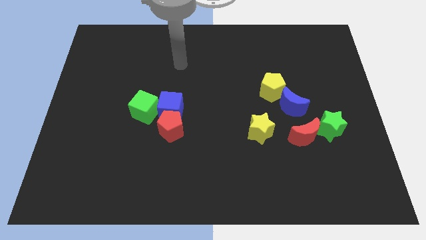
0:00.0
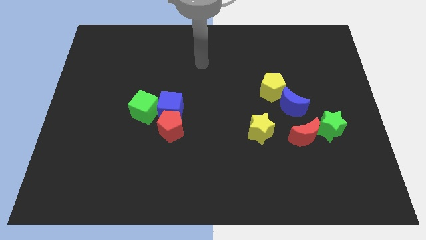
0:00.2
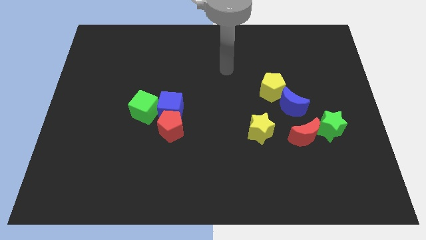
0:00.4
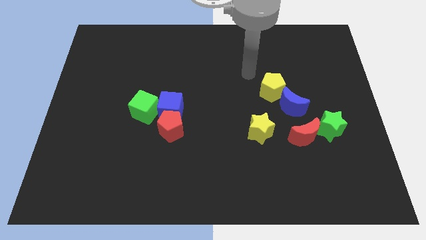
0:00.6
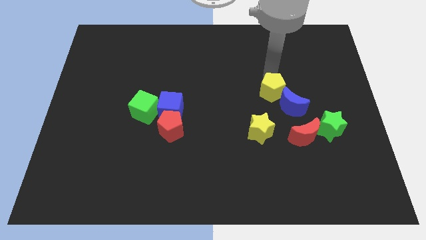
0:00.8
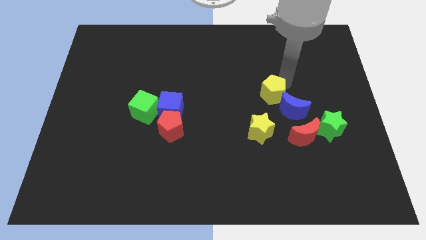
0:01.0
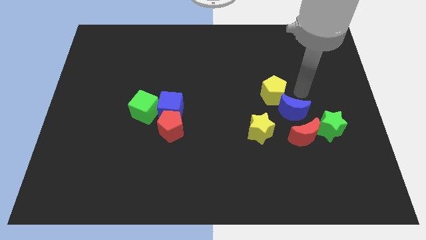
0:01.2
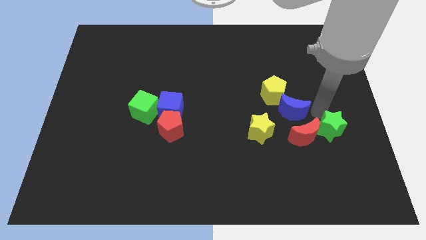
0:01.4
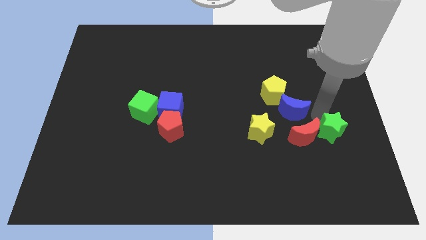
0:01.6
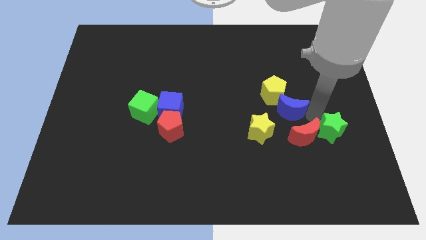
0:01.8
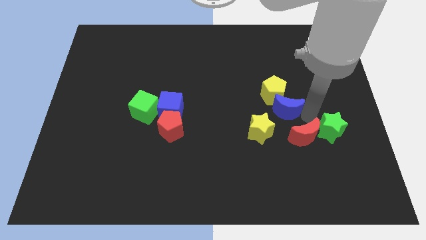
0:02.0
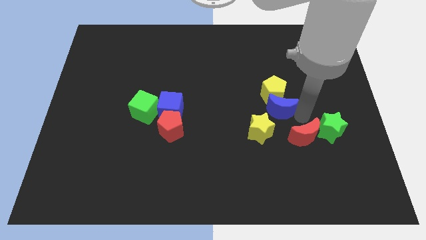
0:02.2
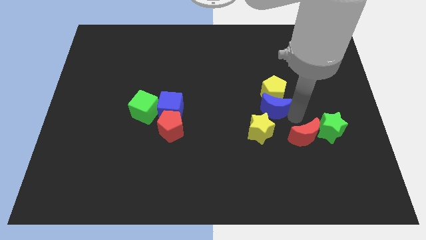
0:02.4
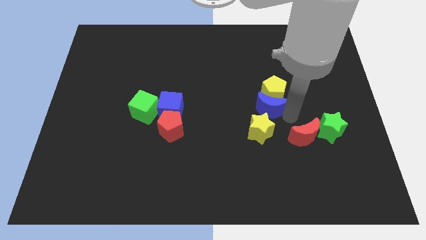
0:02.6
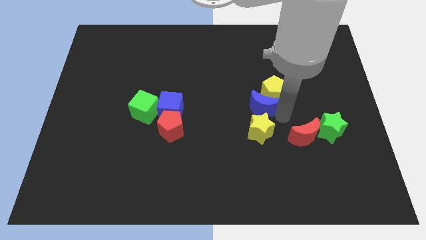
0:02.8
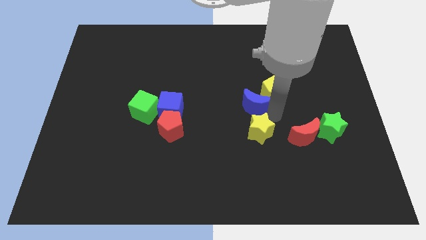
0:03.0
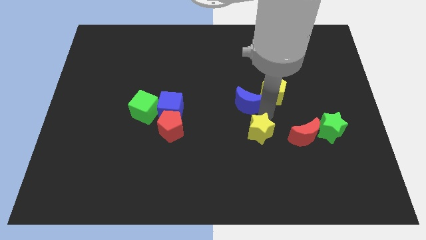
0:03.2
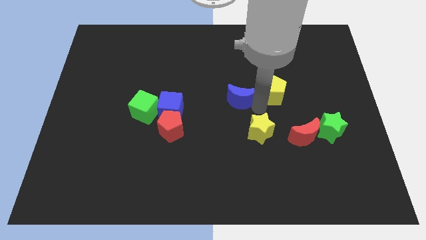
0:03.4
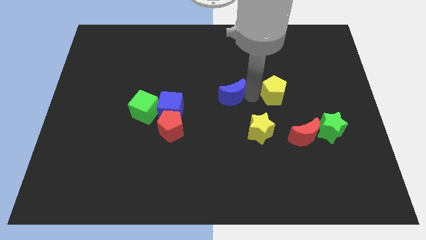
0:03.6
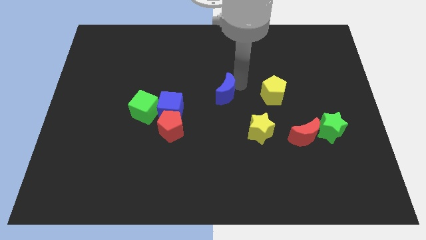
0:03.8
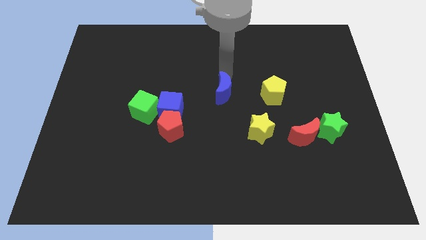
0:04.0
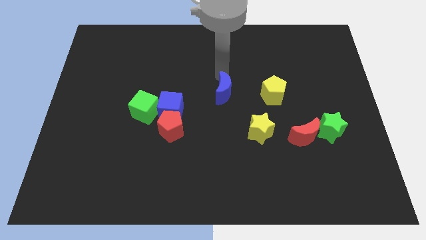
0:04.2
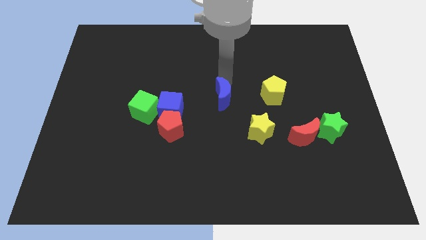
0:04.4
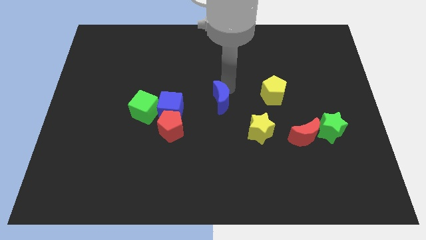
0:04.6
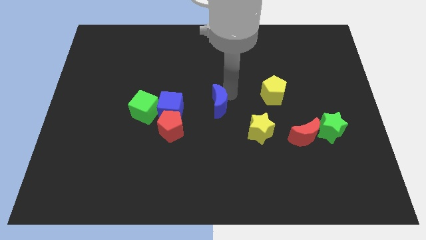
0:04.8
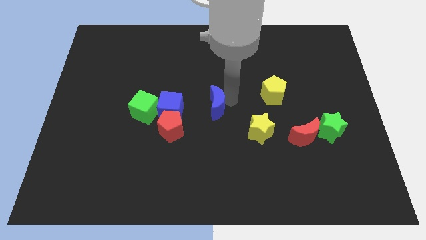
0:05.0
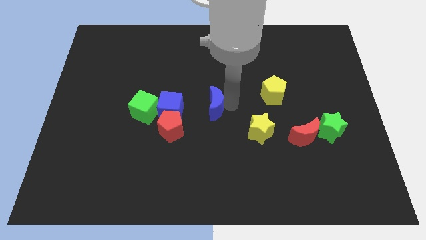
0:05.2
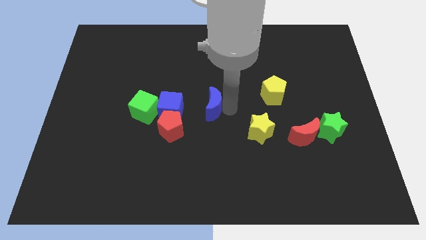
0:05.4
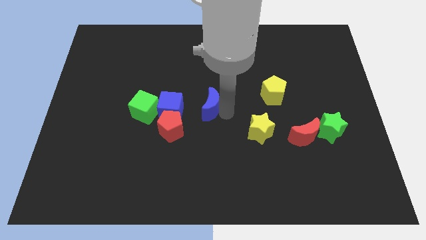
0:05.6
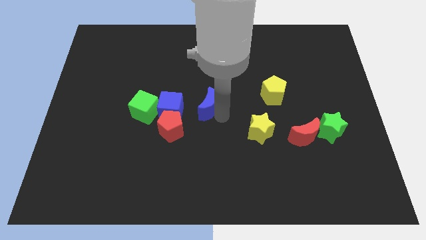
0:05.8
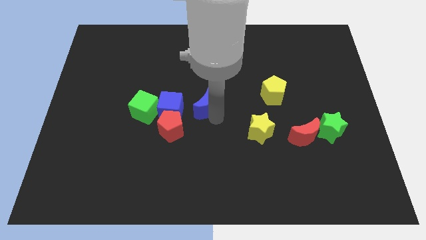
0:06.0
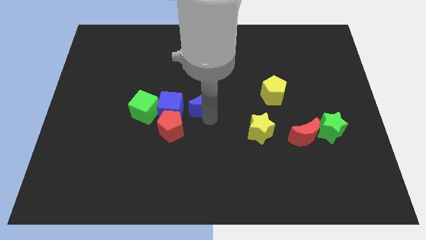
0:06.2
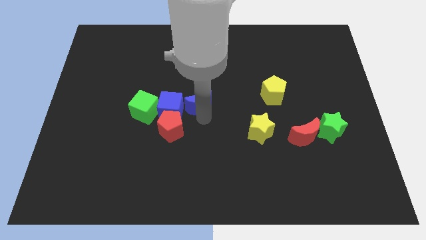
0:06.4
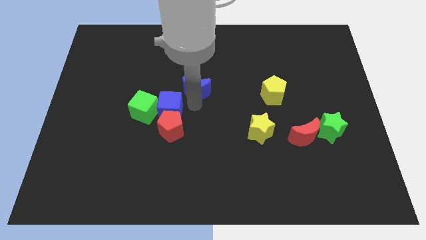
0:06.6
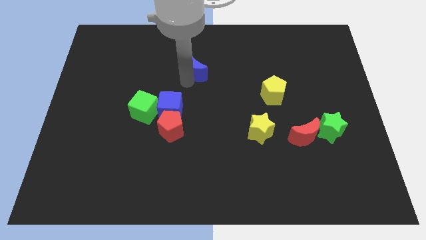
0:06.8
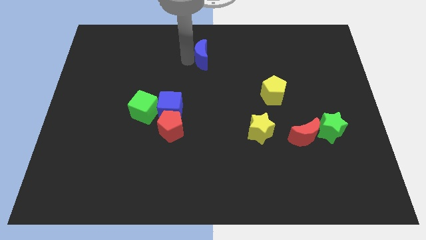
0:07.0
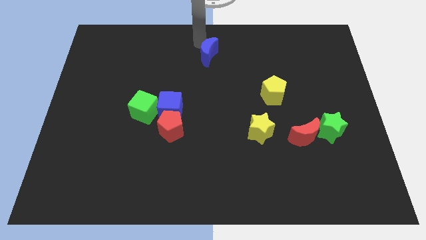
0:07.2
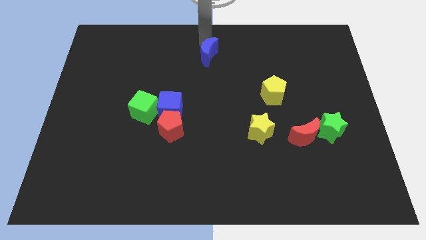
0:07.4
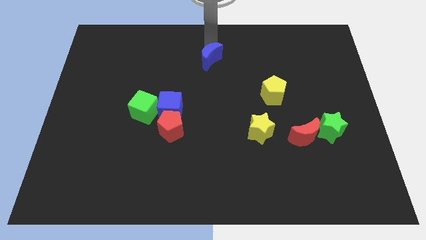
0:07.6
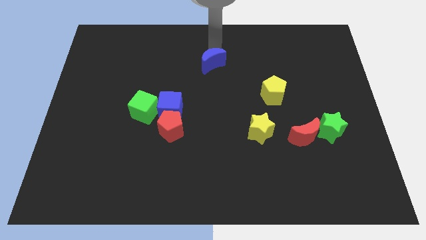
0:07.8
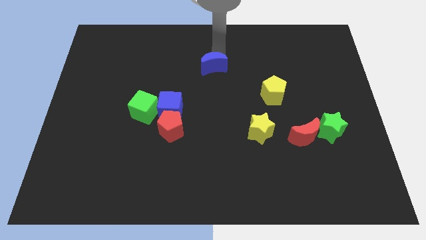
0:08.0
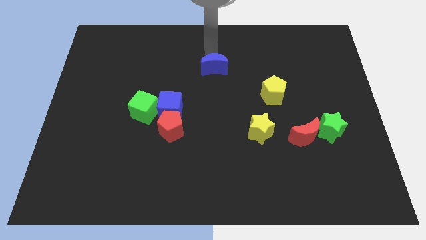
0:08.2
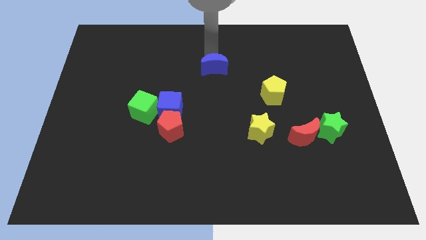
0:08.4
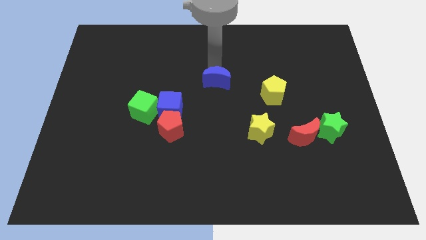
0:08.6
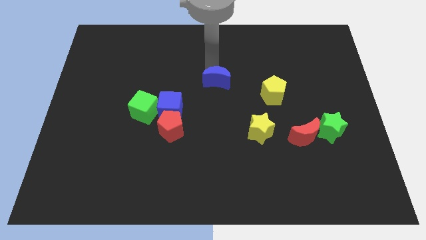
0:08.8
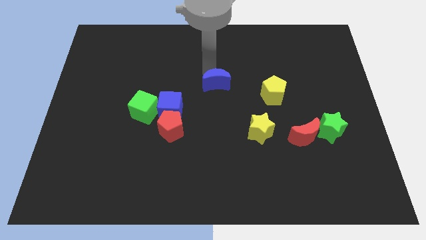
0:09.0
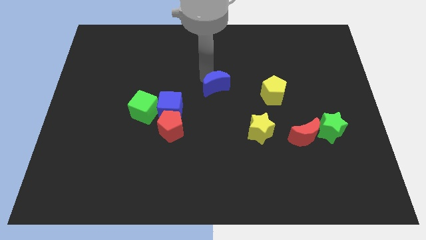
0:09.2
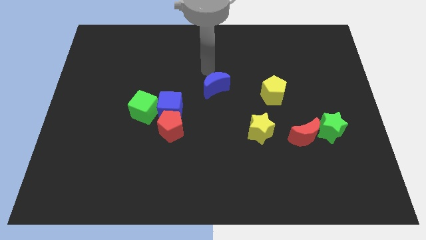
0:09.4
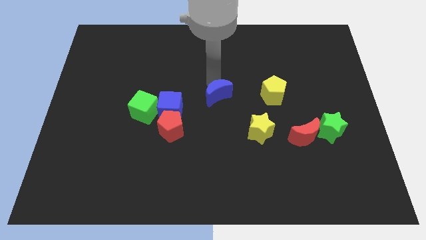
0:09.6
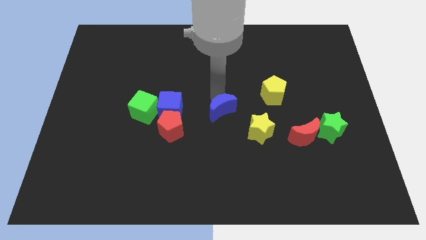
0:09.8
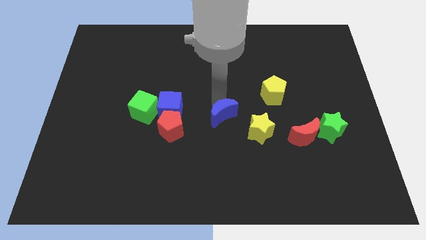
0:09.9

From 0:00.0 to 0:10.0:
slightly push the blue moon down and then left

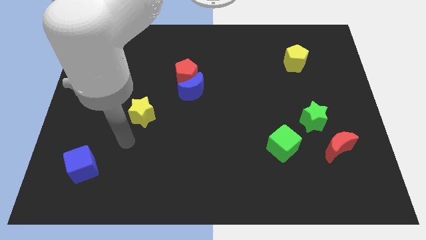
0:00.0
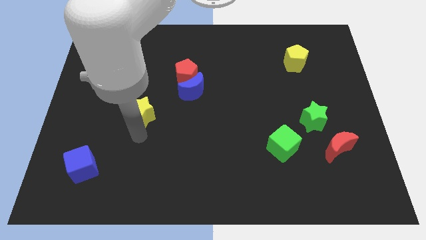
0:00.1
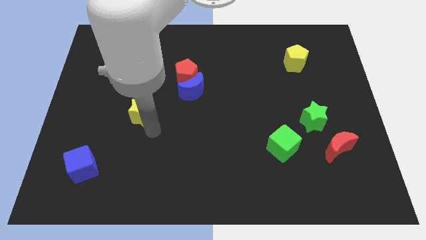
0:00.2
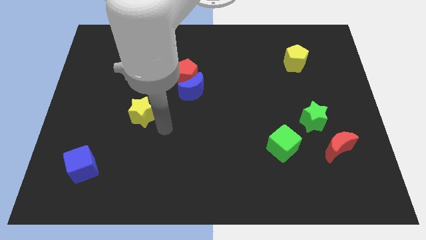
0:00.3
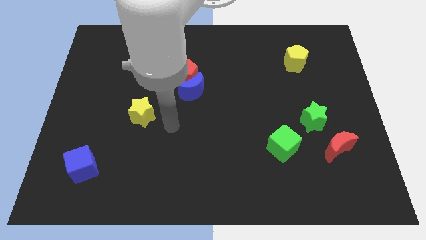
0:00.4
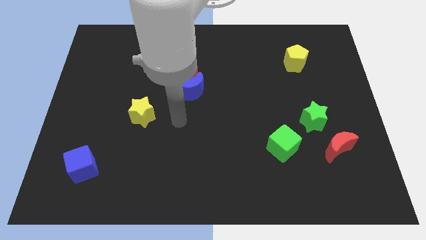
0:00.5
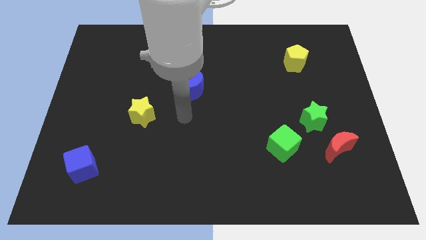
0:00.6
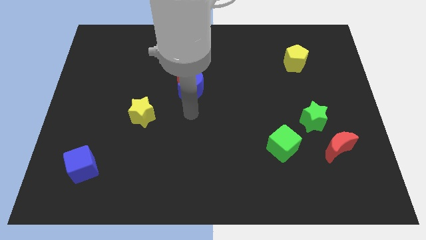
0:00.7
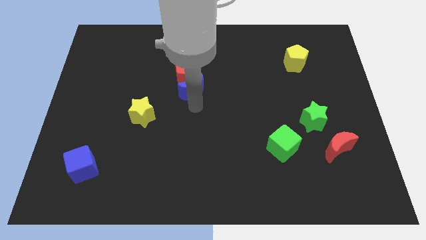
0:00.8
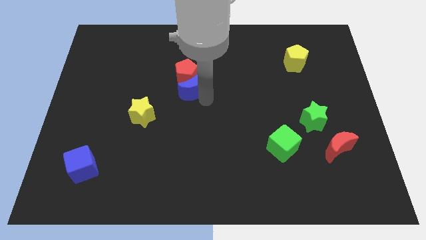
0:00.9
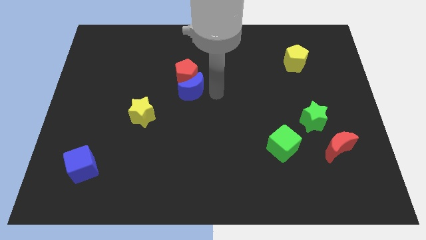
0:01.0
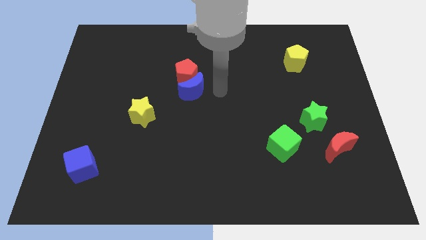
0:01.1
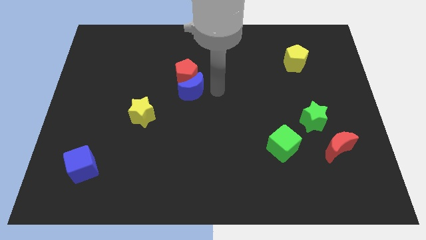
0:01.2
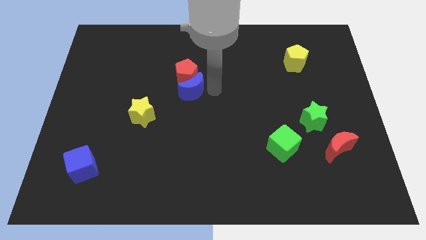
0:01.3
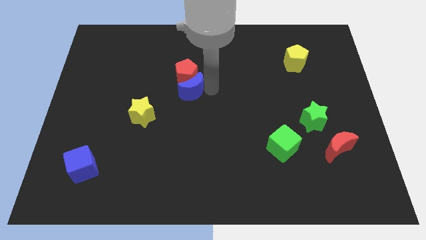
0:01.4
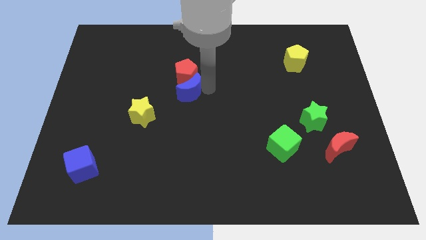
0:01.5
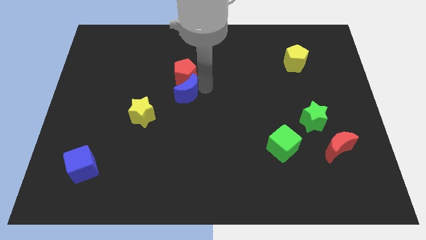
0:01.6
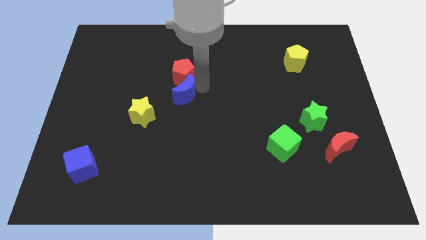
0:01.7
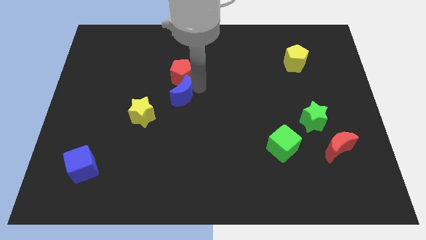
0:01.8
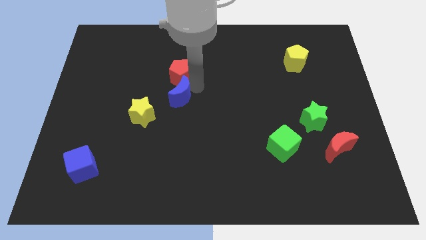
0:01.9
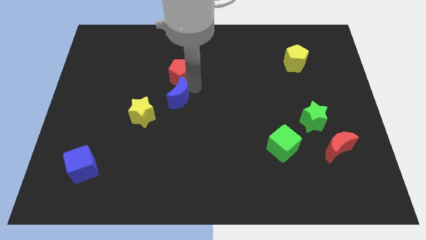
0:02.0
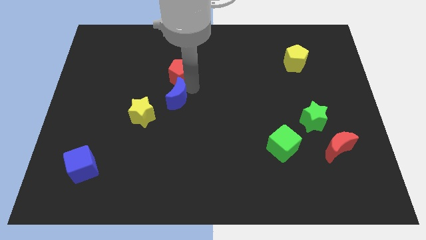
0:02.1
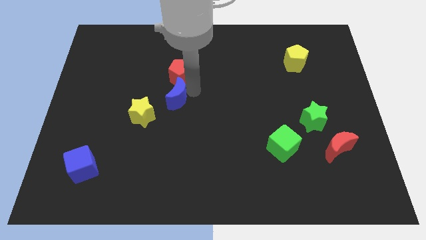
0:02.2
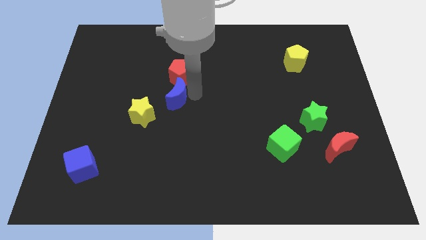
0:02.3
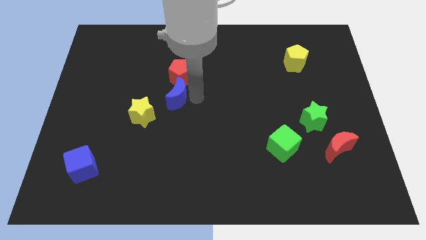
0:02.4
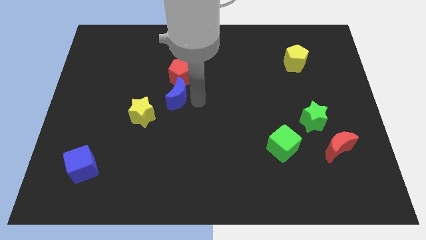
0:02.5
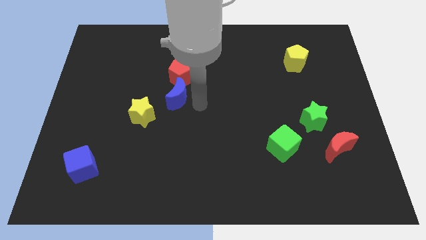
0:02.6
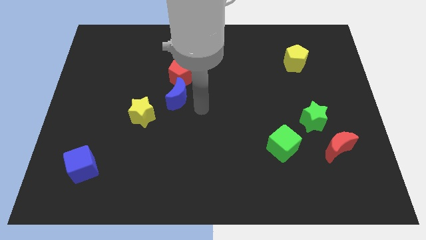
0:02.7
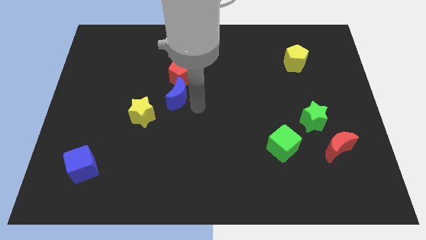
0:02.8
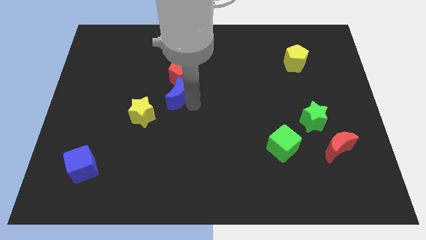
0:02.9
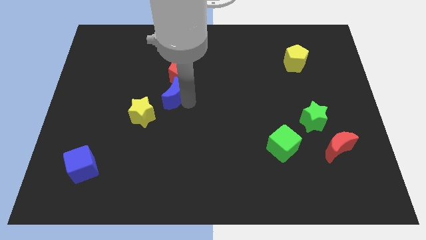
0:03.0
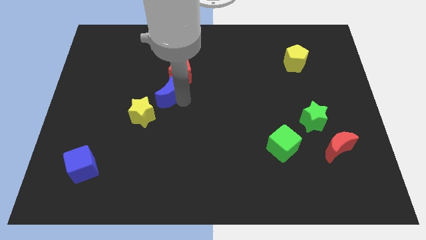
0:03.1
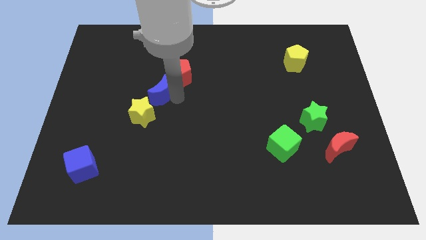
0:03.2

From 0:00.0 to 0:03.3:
slightly push the blue moon left
